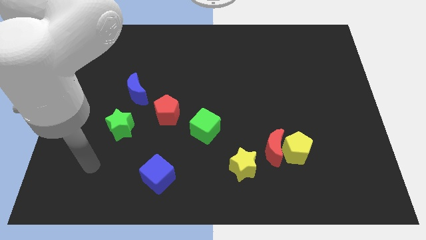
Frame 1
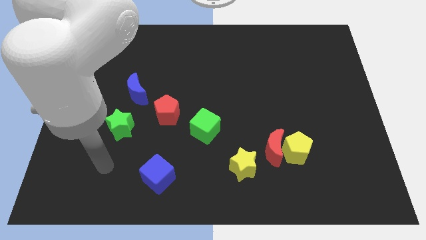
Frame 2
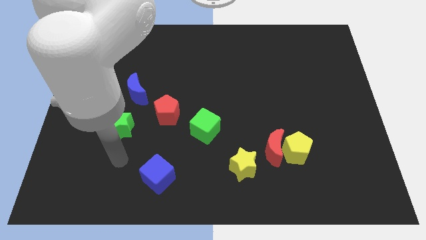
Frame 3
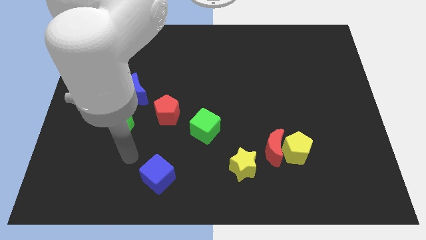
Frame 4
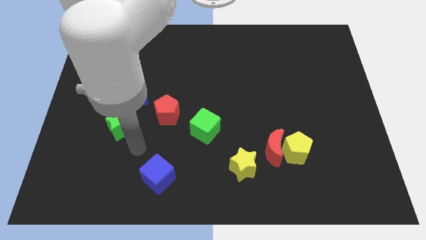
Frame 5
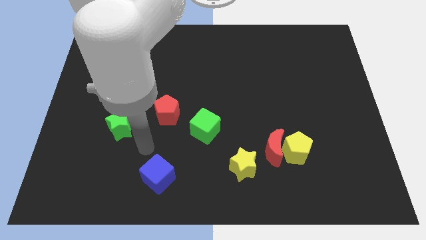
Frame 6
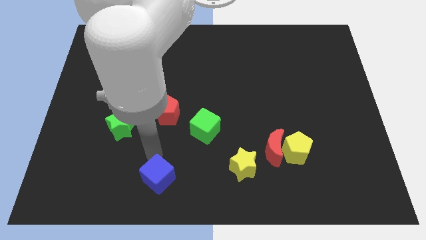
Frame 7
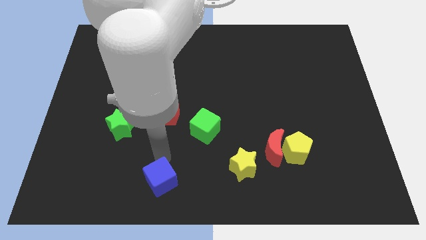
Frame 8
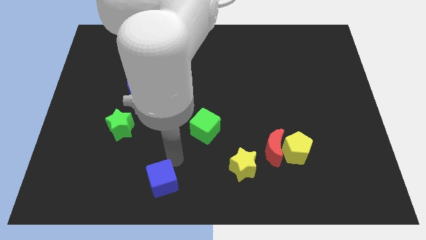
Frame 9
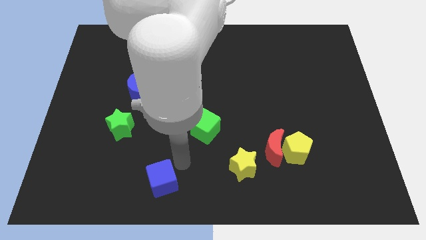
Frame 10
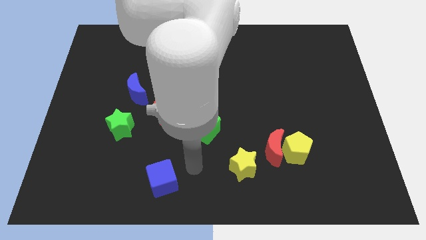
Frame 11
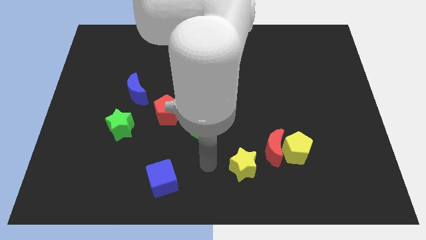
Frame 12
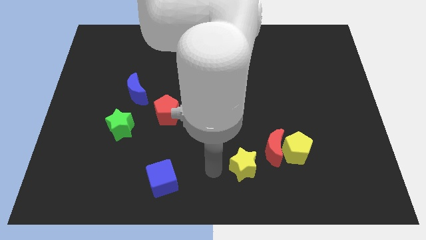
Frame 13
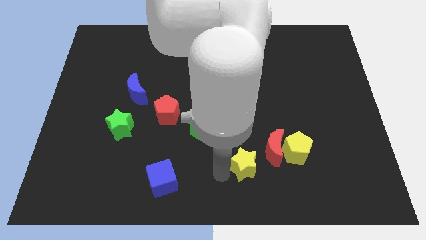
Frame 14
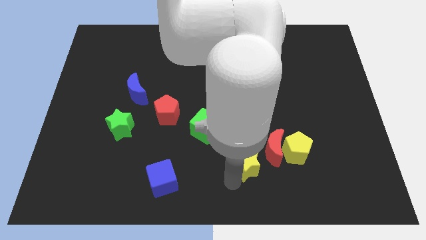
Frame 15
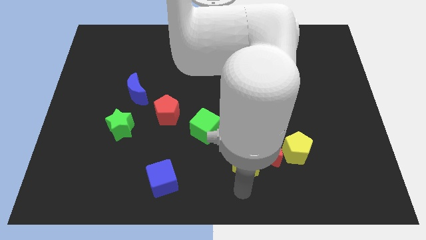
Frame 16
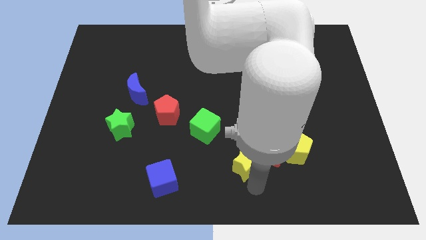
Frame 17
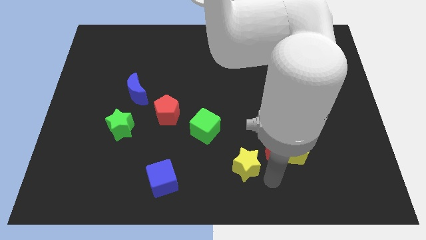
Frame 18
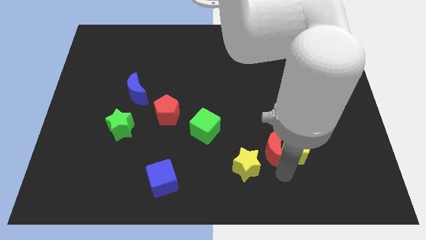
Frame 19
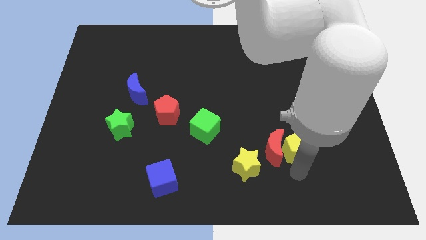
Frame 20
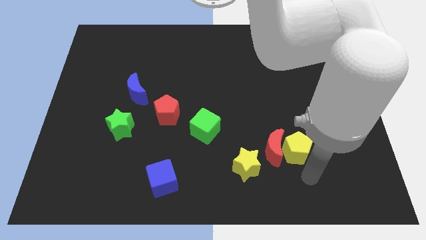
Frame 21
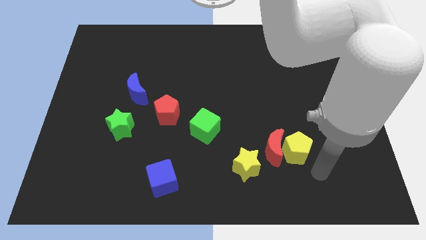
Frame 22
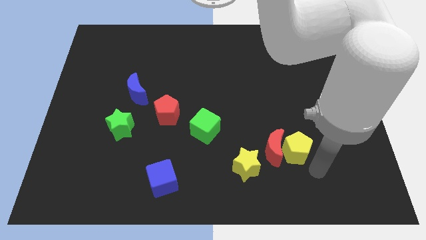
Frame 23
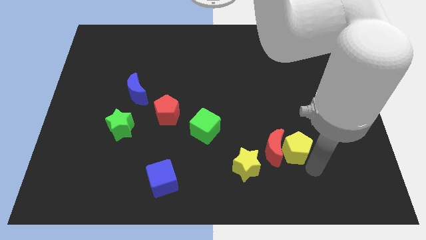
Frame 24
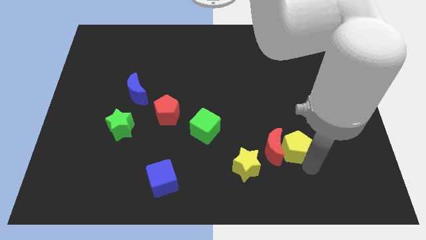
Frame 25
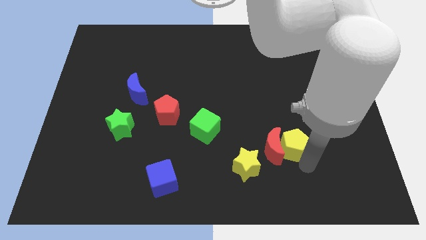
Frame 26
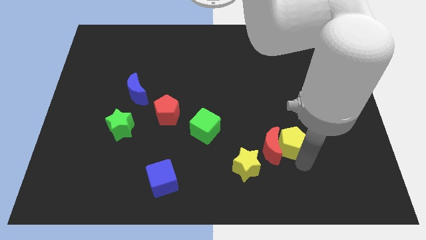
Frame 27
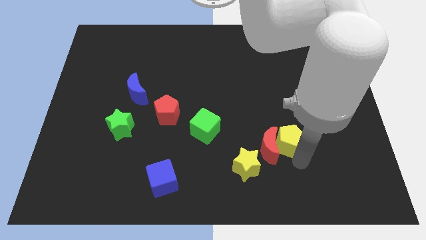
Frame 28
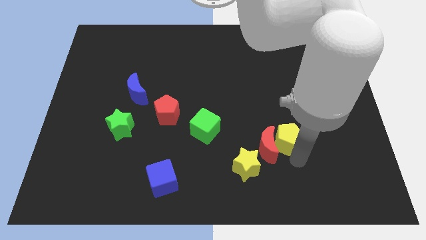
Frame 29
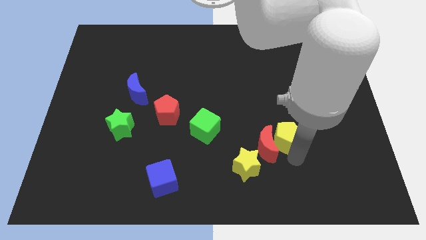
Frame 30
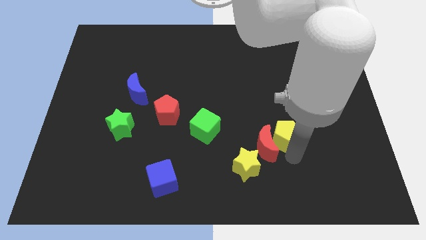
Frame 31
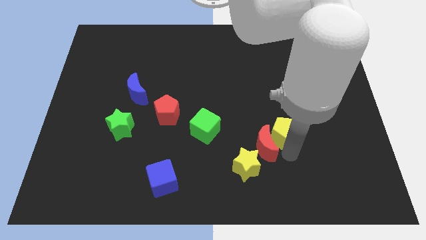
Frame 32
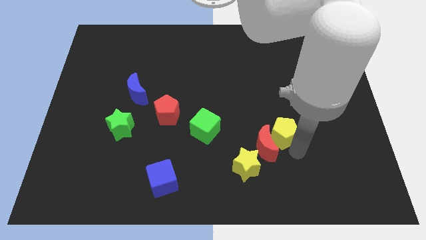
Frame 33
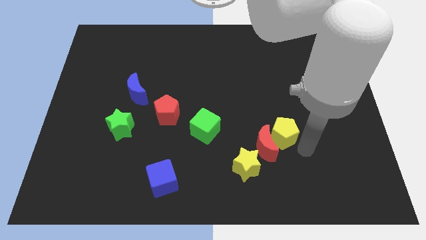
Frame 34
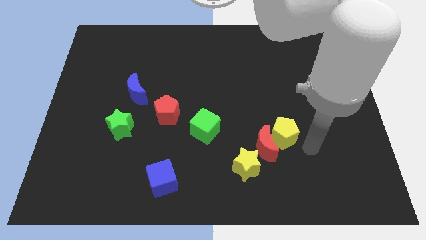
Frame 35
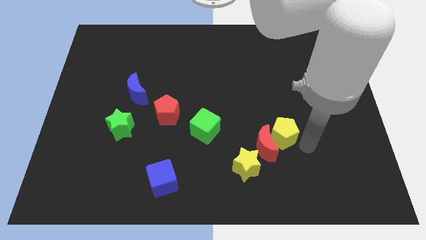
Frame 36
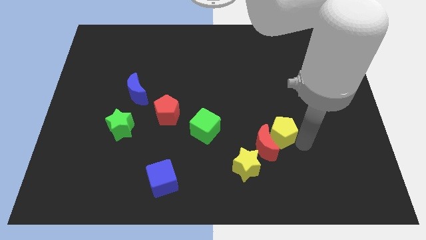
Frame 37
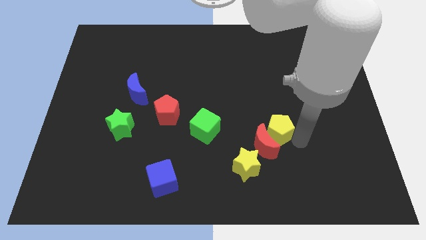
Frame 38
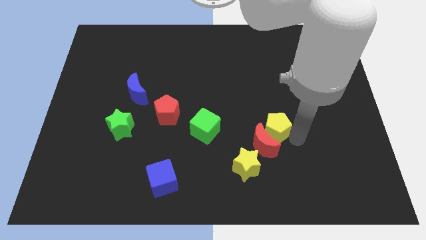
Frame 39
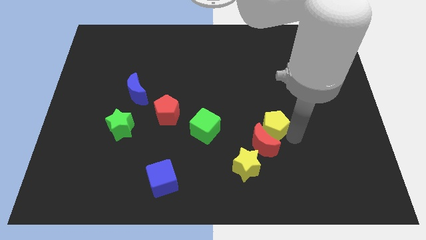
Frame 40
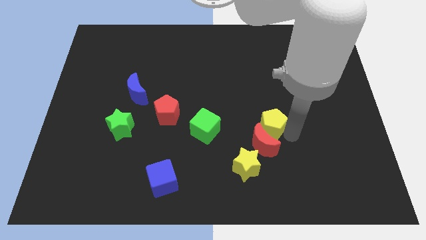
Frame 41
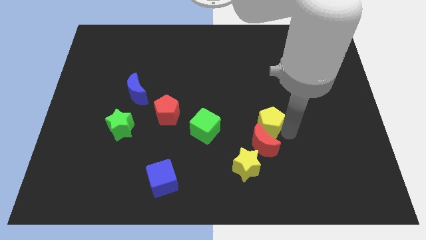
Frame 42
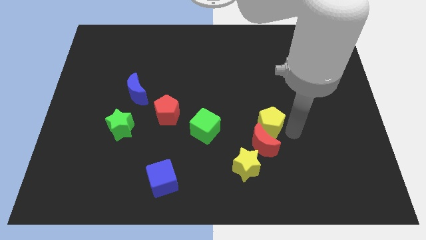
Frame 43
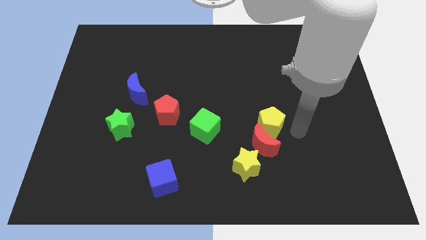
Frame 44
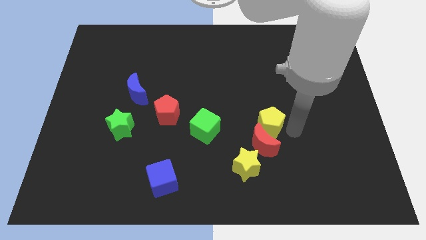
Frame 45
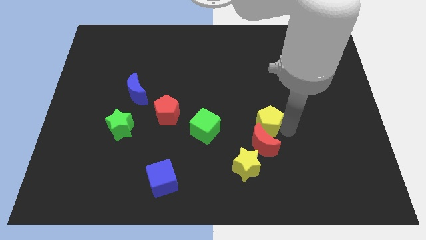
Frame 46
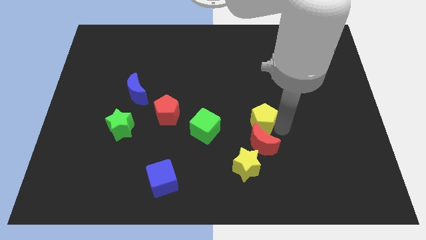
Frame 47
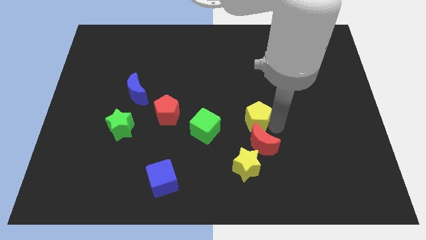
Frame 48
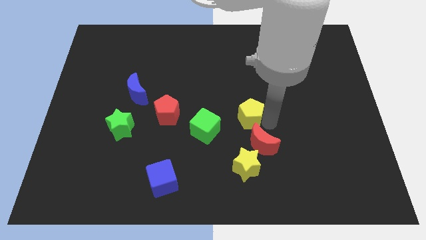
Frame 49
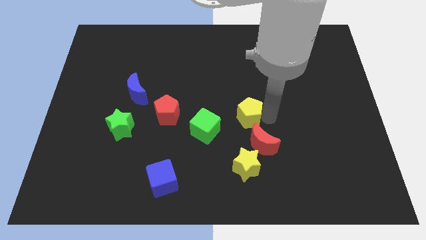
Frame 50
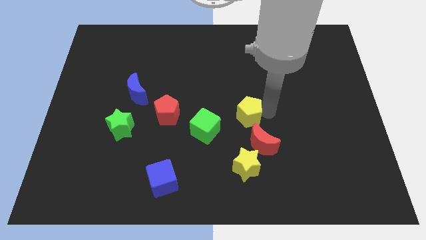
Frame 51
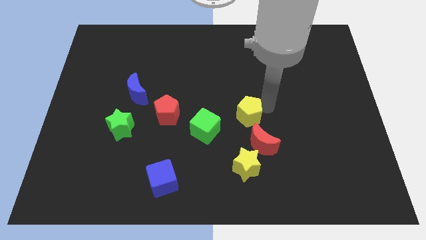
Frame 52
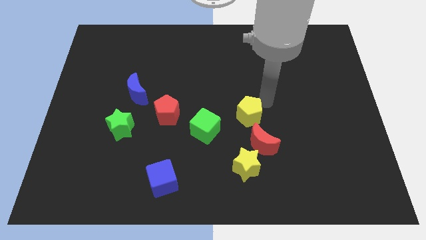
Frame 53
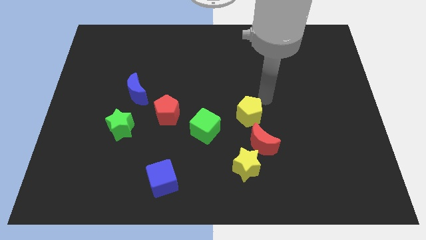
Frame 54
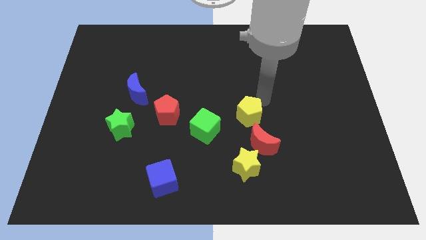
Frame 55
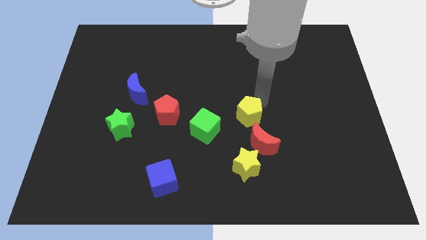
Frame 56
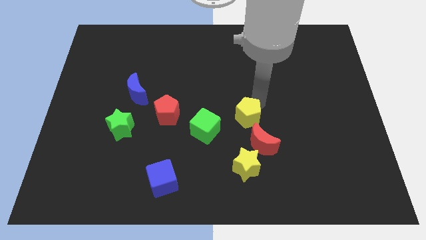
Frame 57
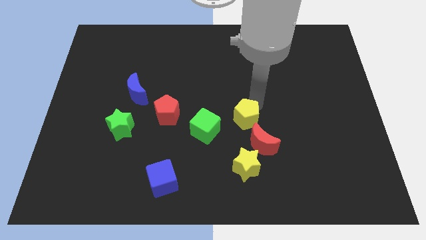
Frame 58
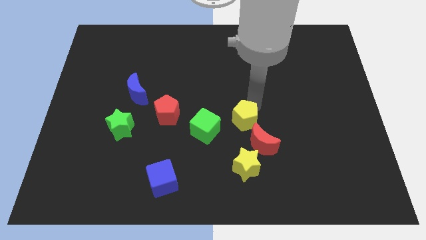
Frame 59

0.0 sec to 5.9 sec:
push the yellow pentagon left slightly

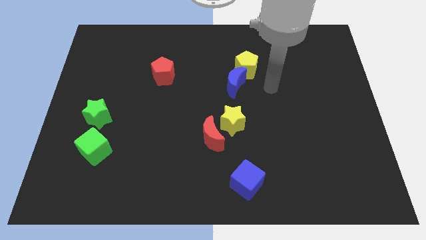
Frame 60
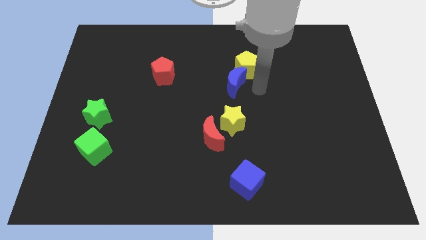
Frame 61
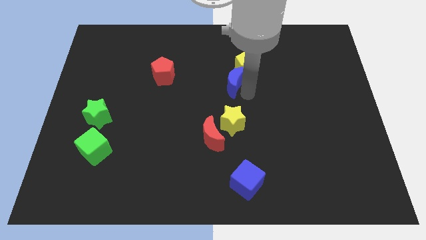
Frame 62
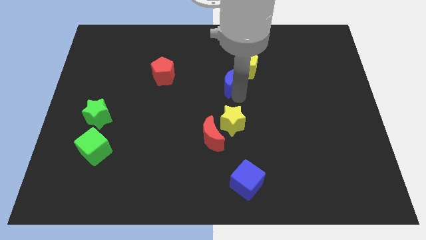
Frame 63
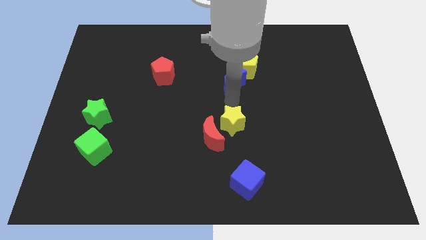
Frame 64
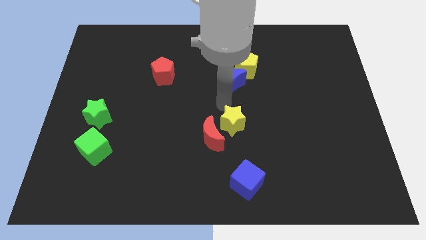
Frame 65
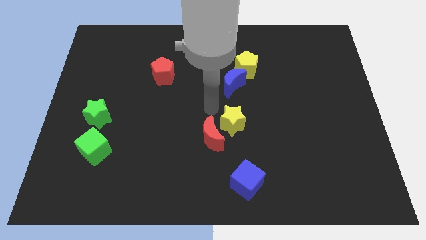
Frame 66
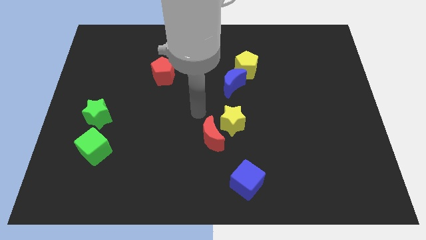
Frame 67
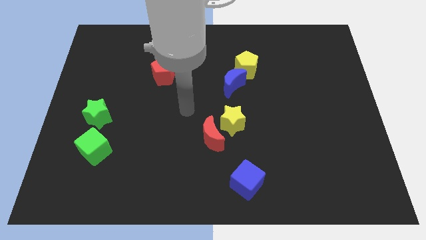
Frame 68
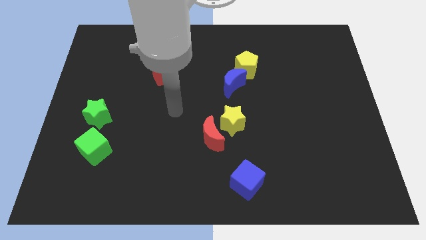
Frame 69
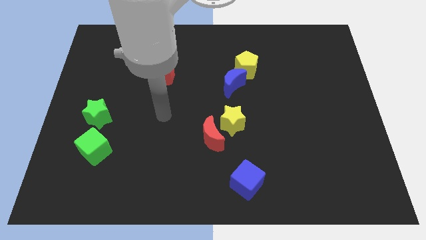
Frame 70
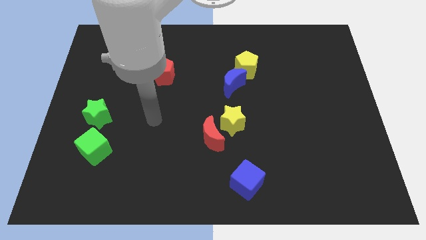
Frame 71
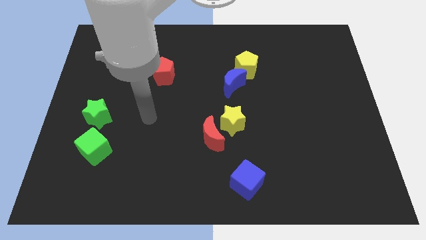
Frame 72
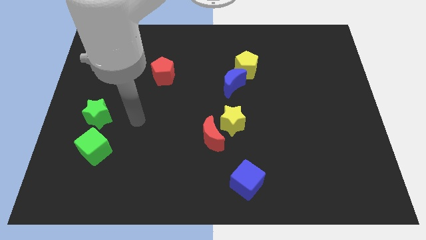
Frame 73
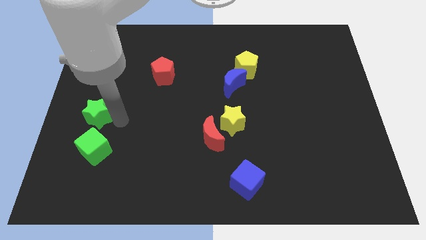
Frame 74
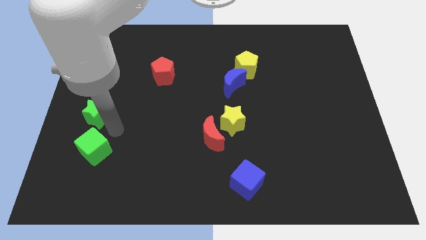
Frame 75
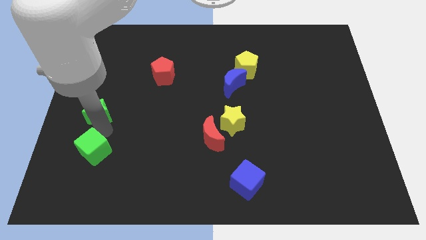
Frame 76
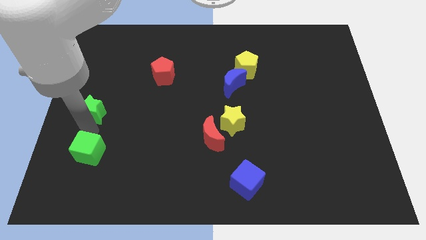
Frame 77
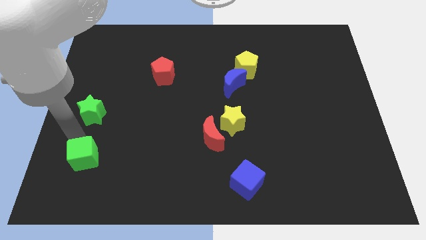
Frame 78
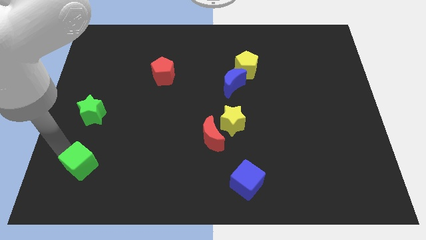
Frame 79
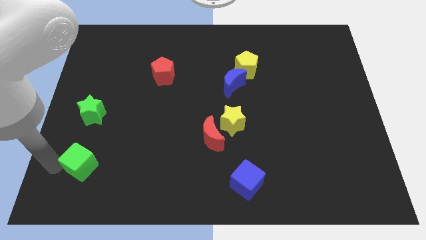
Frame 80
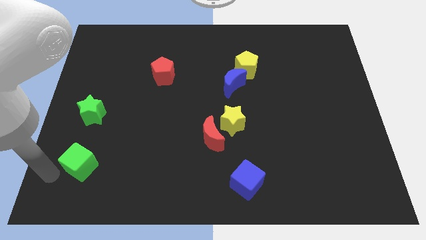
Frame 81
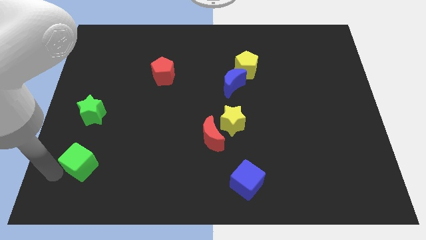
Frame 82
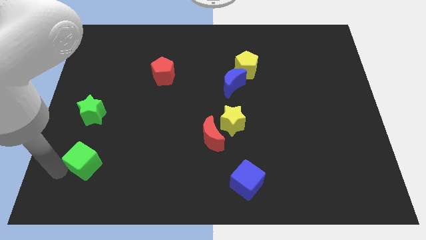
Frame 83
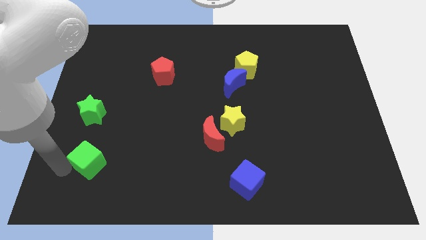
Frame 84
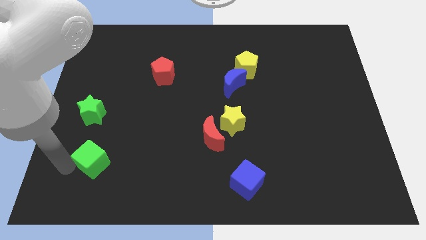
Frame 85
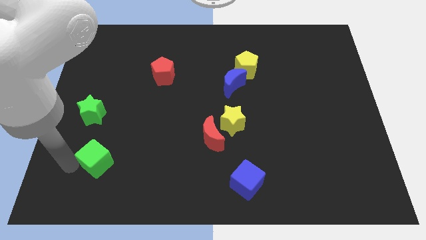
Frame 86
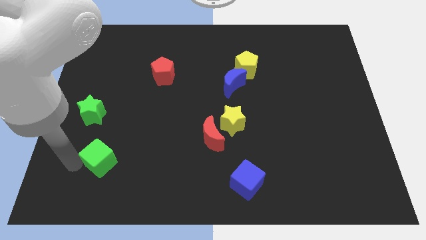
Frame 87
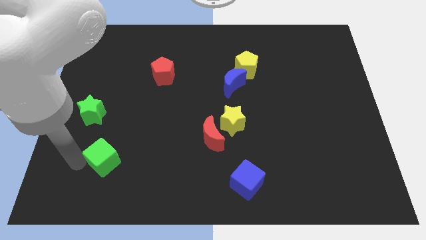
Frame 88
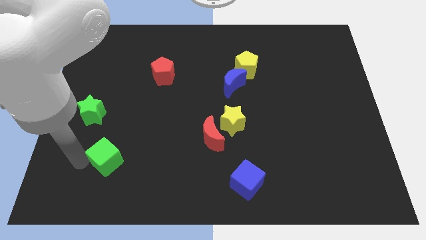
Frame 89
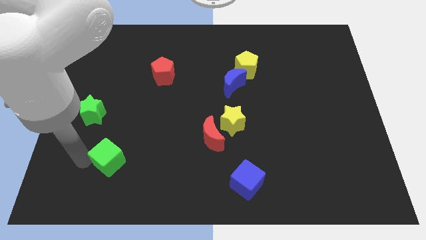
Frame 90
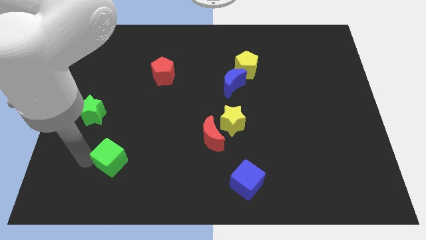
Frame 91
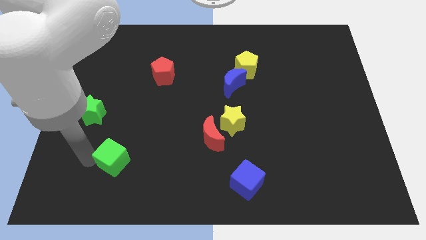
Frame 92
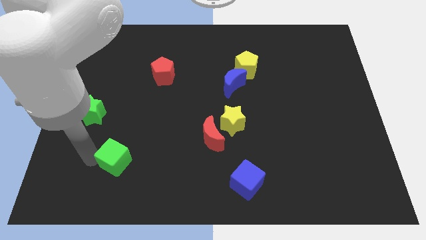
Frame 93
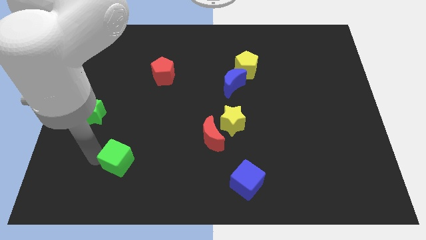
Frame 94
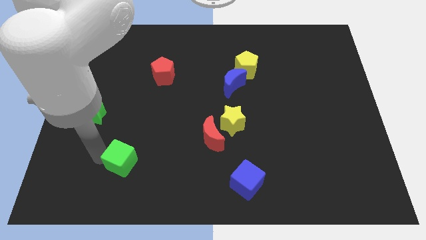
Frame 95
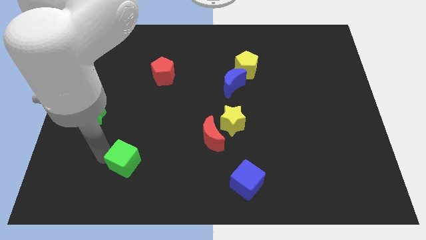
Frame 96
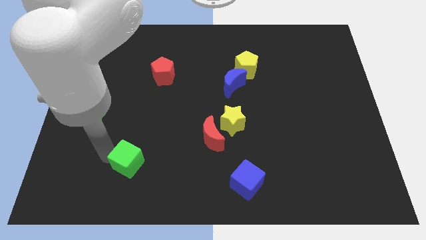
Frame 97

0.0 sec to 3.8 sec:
push the green cube right a little bit
